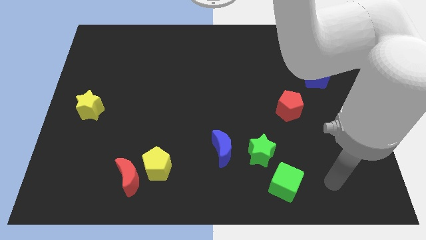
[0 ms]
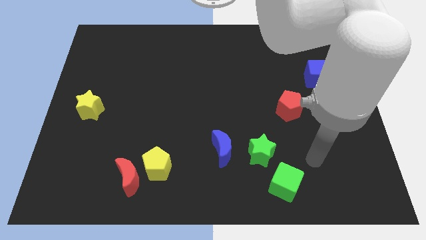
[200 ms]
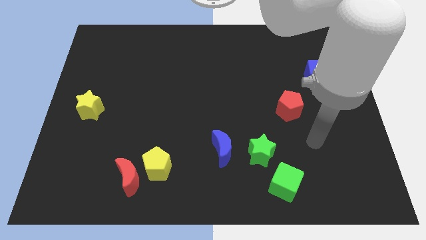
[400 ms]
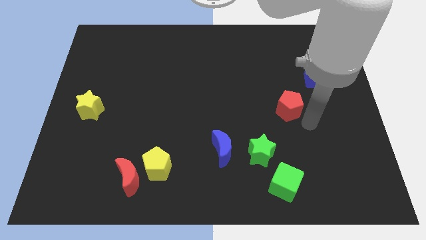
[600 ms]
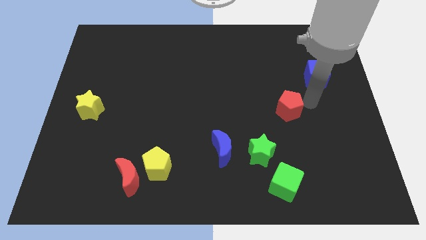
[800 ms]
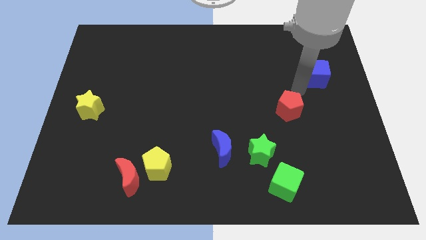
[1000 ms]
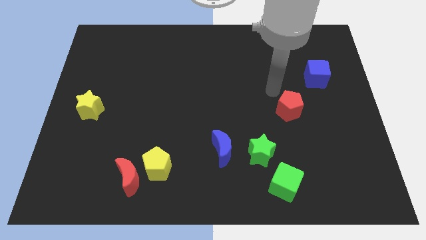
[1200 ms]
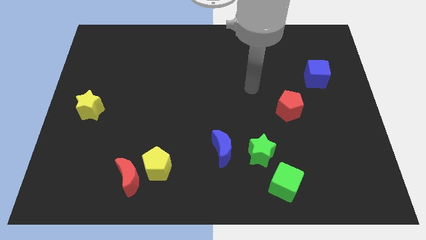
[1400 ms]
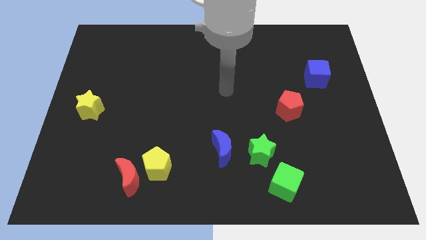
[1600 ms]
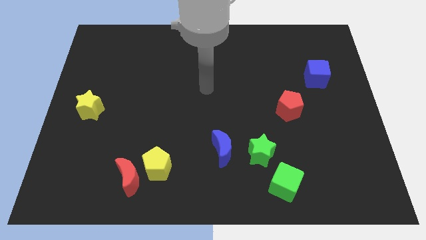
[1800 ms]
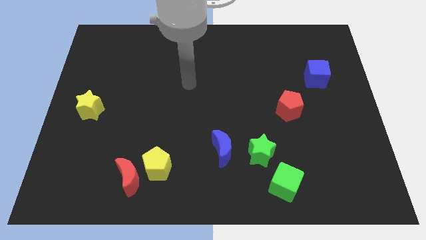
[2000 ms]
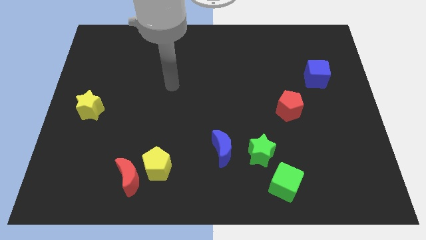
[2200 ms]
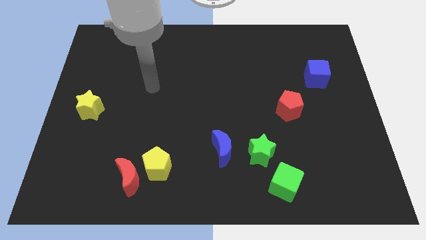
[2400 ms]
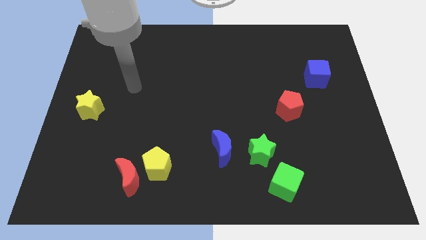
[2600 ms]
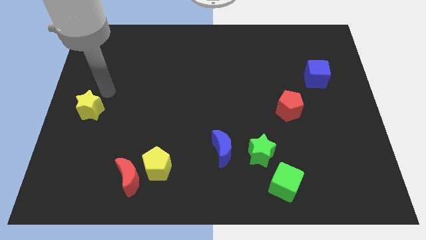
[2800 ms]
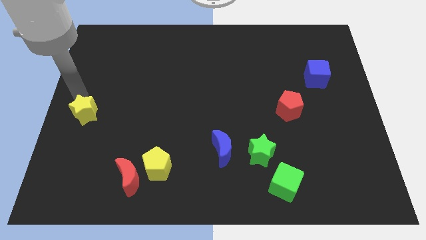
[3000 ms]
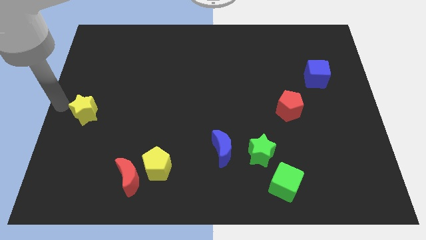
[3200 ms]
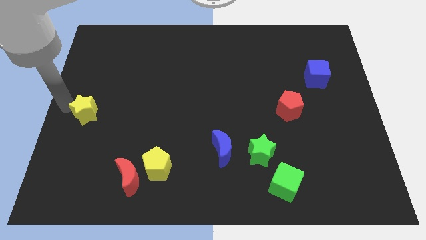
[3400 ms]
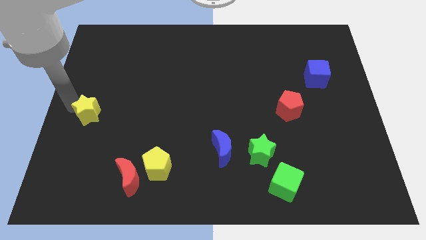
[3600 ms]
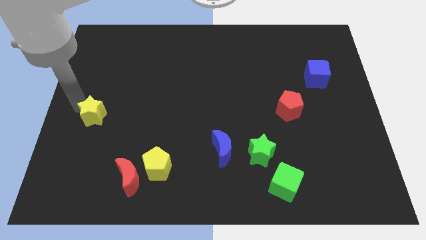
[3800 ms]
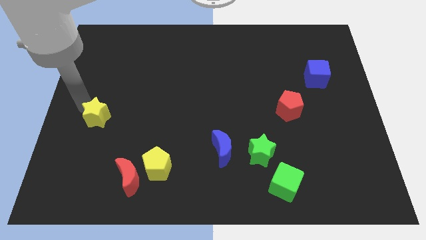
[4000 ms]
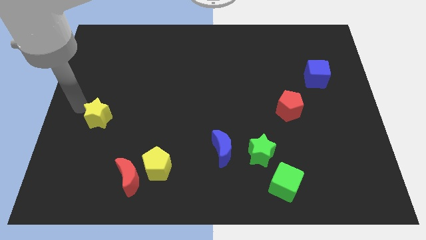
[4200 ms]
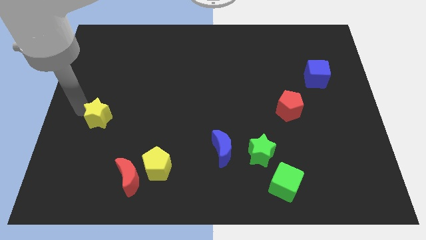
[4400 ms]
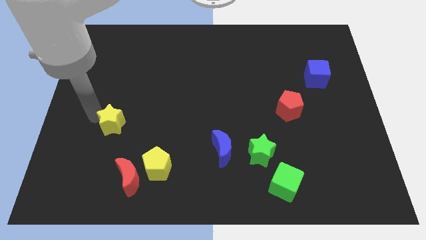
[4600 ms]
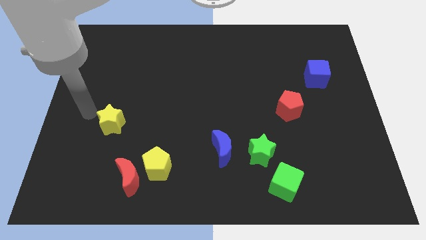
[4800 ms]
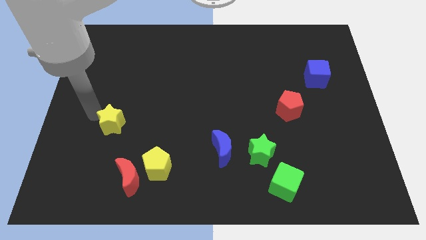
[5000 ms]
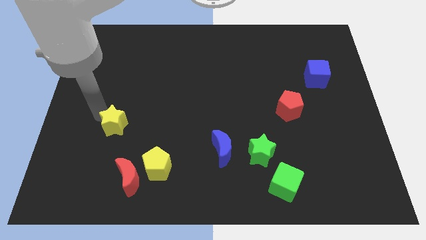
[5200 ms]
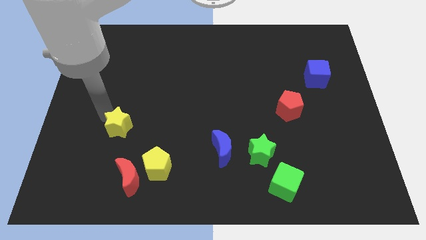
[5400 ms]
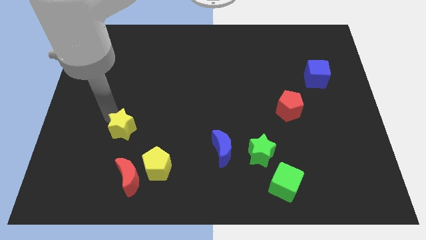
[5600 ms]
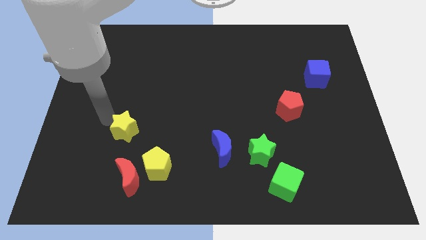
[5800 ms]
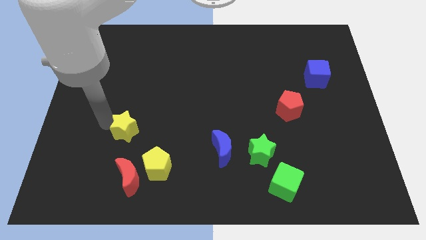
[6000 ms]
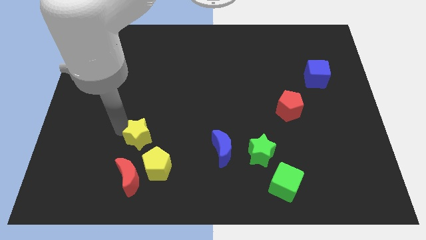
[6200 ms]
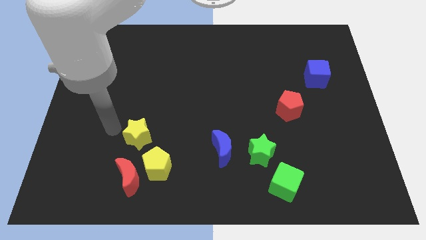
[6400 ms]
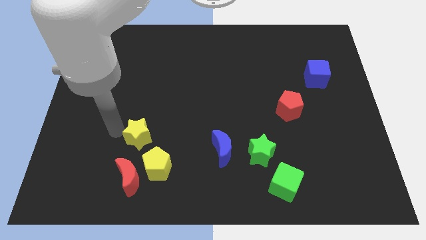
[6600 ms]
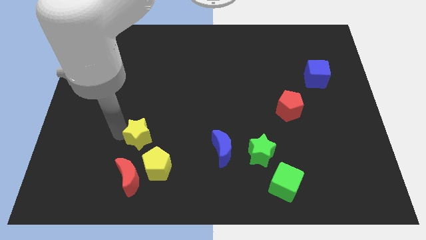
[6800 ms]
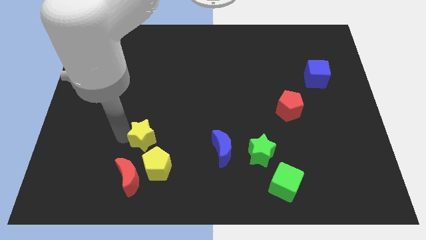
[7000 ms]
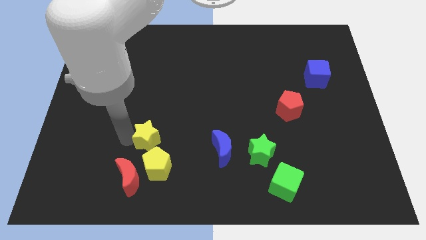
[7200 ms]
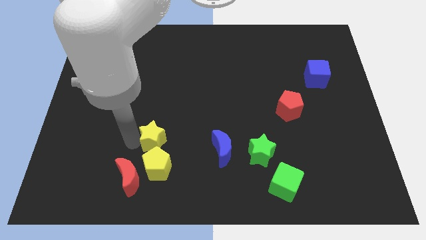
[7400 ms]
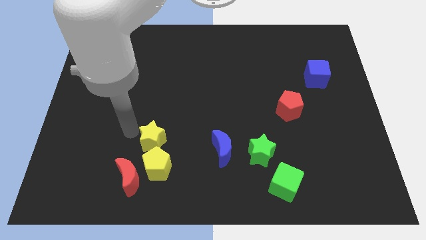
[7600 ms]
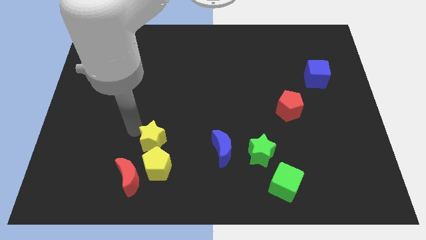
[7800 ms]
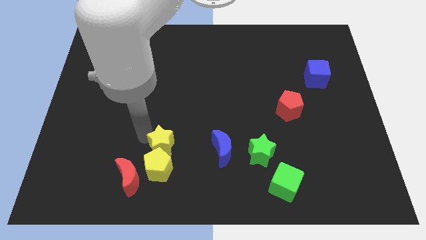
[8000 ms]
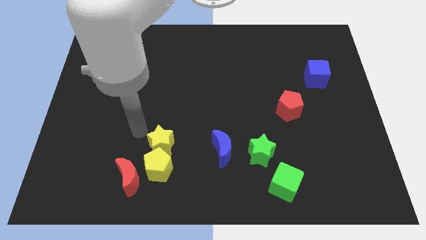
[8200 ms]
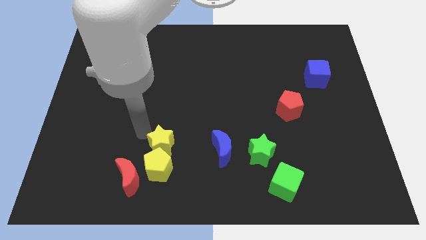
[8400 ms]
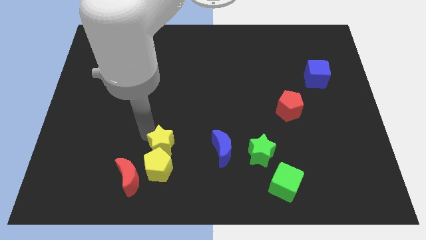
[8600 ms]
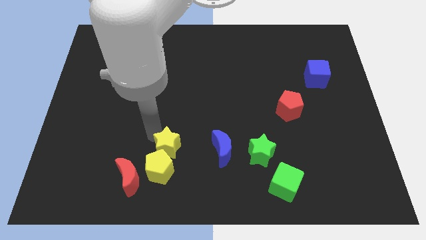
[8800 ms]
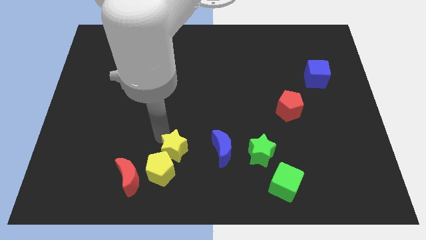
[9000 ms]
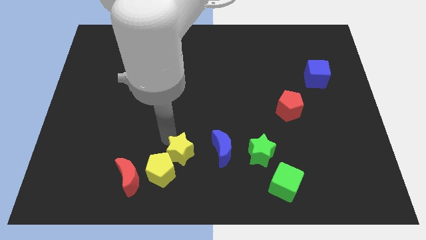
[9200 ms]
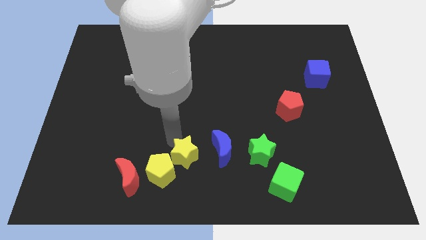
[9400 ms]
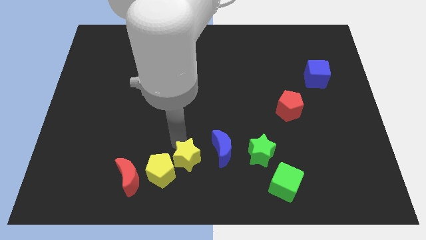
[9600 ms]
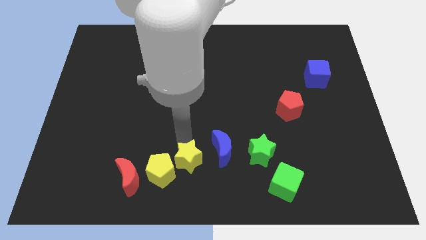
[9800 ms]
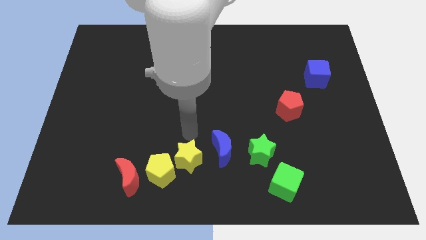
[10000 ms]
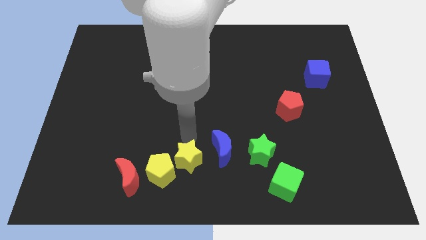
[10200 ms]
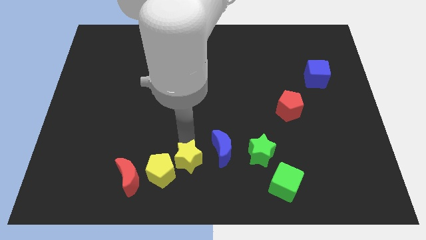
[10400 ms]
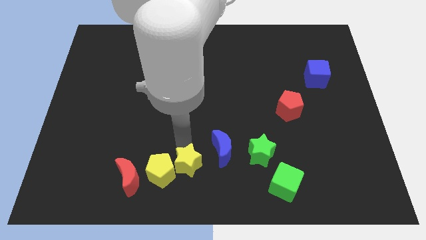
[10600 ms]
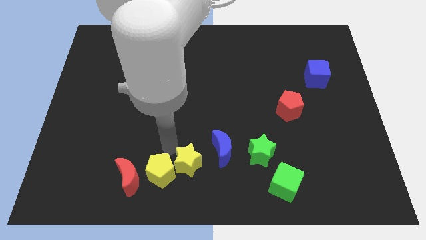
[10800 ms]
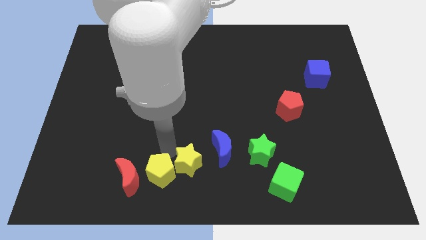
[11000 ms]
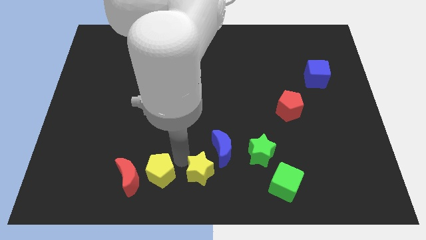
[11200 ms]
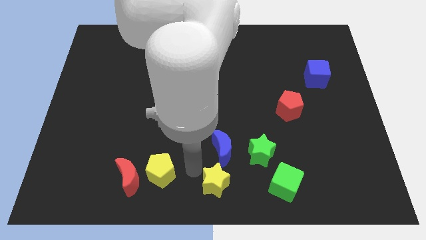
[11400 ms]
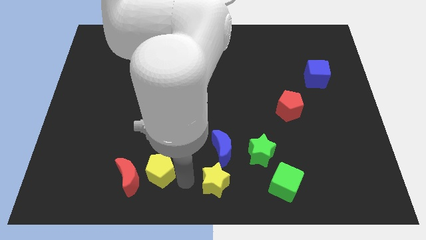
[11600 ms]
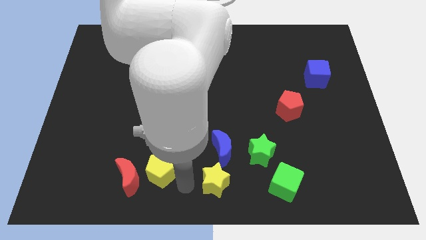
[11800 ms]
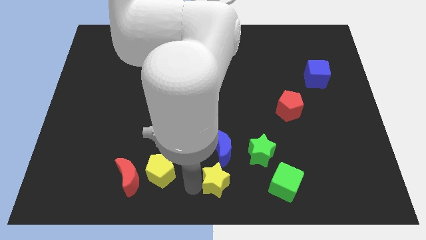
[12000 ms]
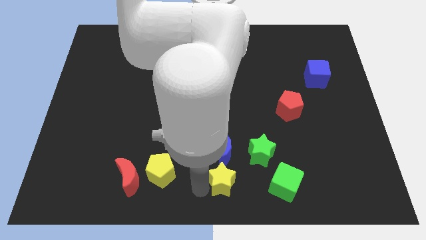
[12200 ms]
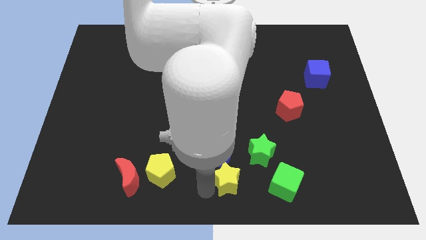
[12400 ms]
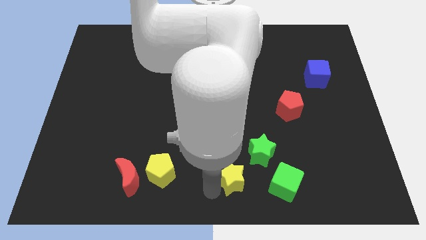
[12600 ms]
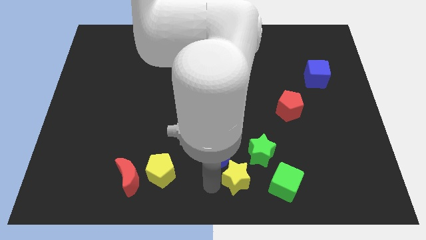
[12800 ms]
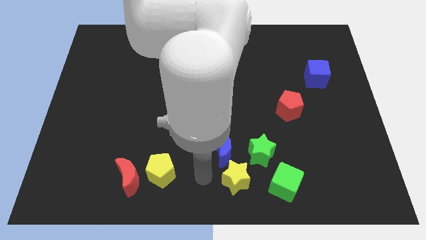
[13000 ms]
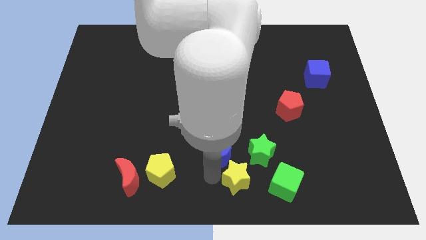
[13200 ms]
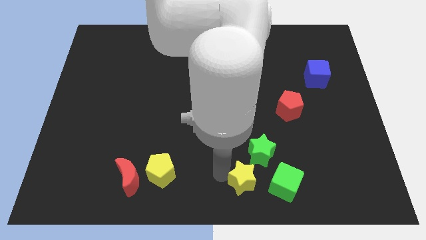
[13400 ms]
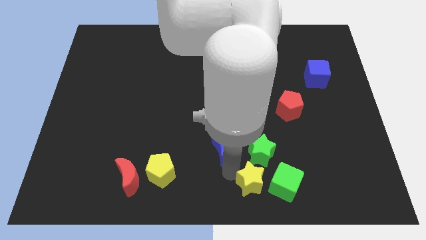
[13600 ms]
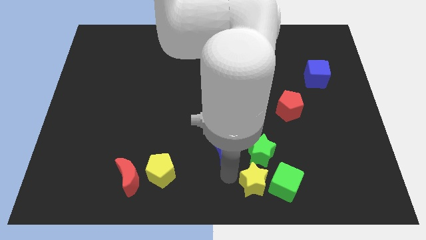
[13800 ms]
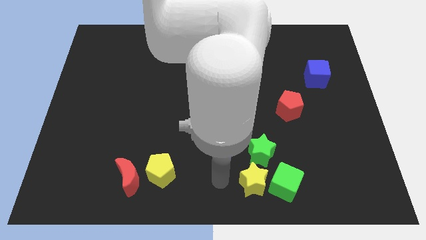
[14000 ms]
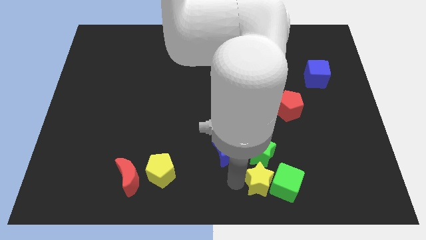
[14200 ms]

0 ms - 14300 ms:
push the yellow star to the green cube
